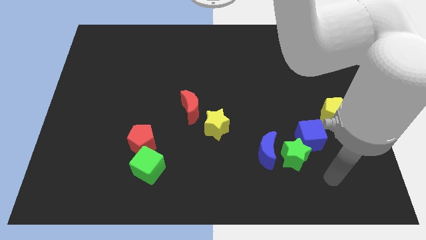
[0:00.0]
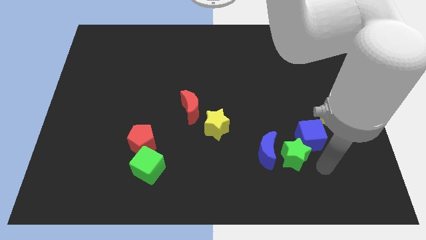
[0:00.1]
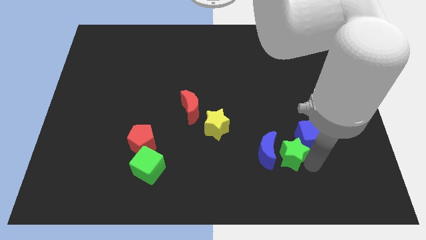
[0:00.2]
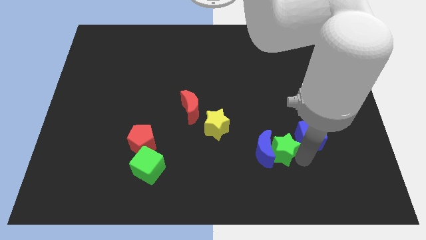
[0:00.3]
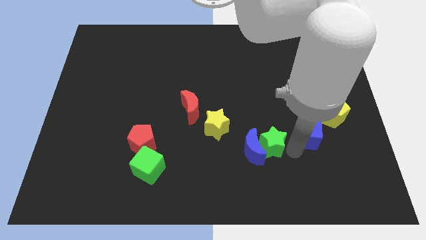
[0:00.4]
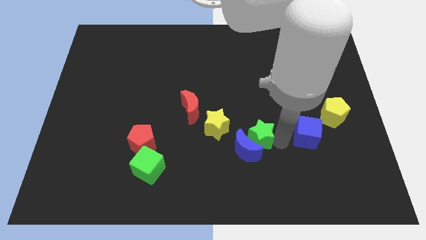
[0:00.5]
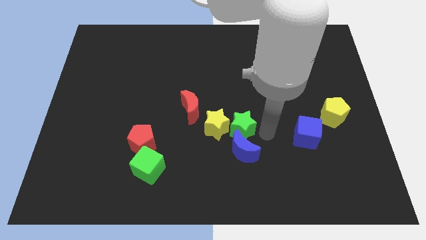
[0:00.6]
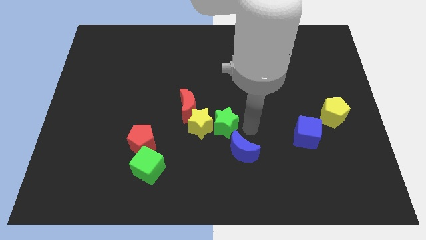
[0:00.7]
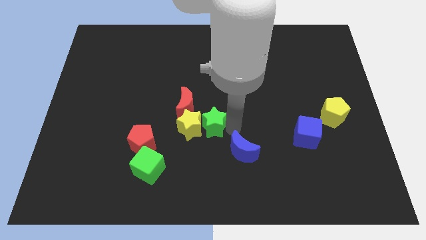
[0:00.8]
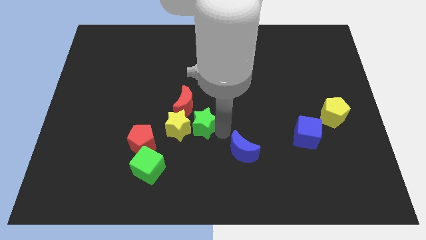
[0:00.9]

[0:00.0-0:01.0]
separate the blue moon from the green star

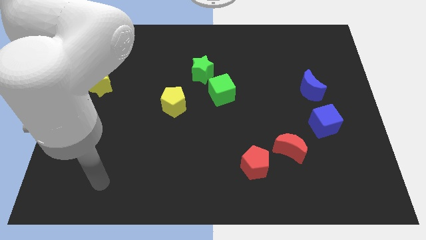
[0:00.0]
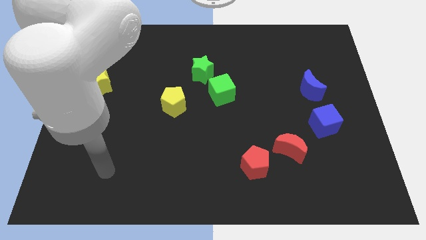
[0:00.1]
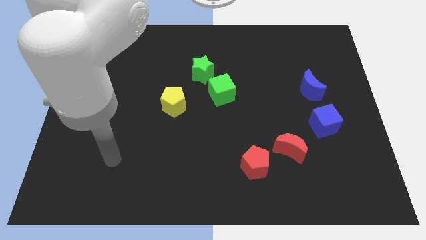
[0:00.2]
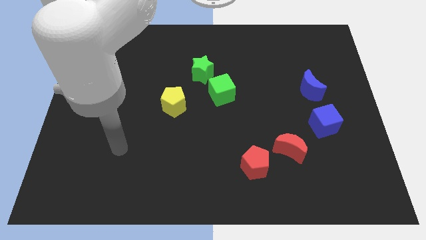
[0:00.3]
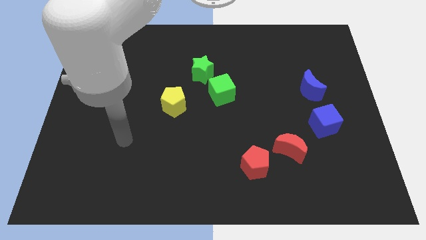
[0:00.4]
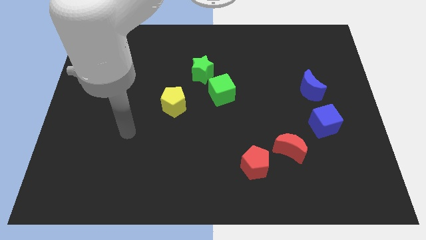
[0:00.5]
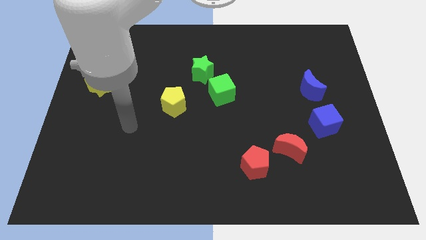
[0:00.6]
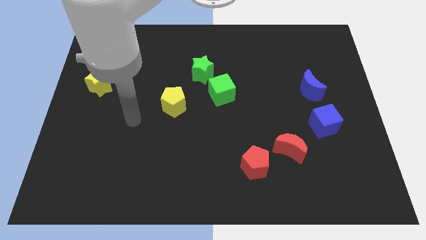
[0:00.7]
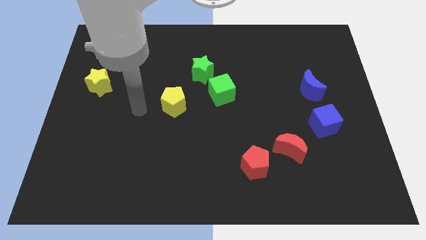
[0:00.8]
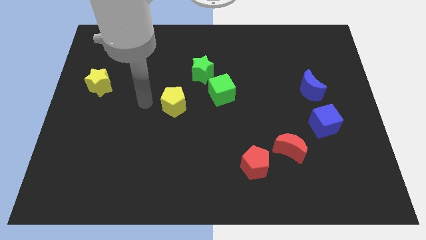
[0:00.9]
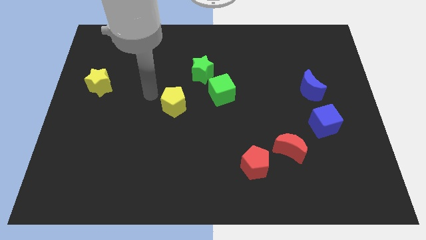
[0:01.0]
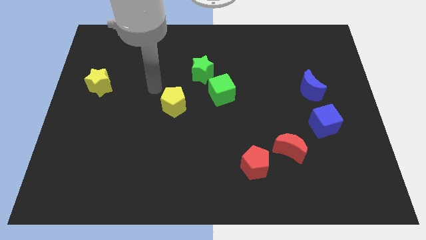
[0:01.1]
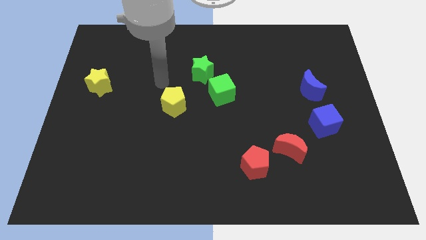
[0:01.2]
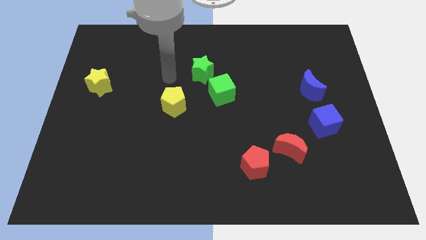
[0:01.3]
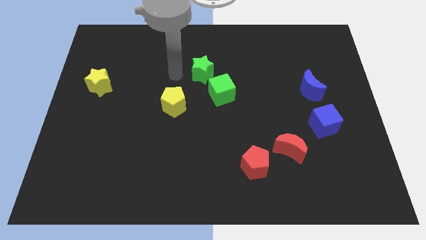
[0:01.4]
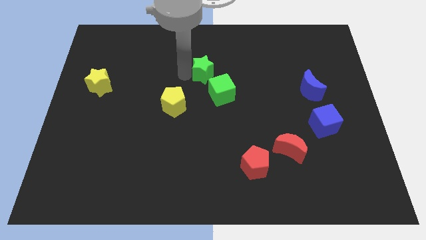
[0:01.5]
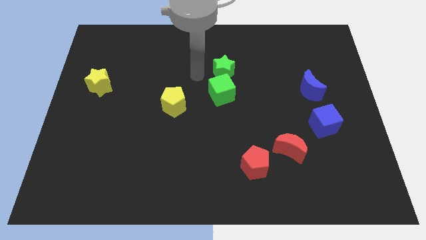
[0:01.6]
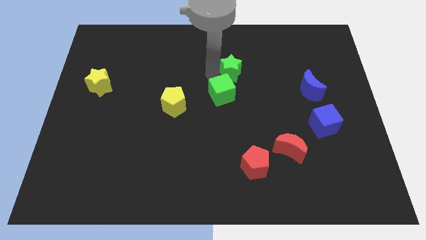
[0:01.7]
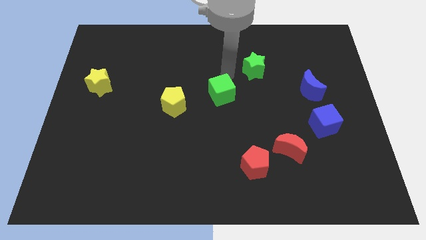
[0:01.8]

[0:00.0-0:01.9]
separate the green cube from the green star

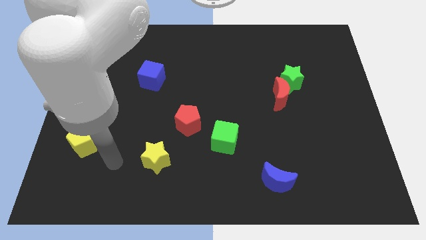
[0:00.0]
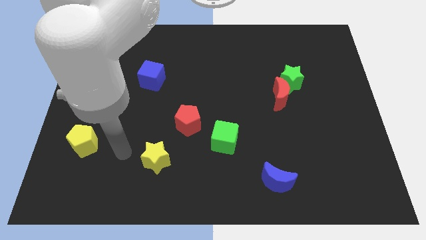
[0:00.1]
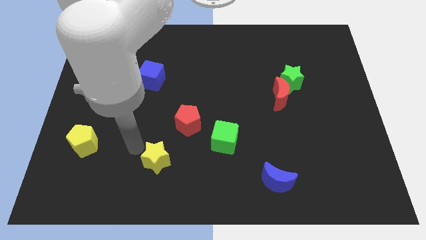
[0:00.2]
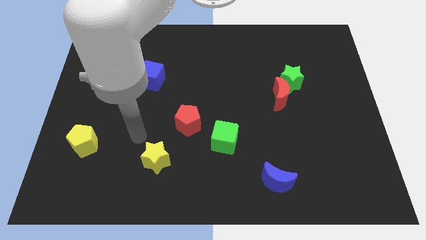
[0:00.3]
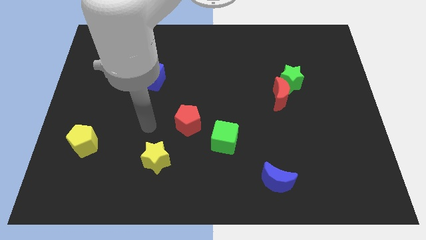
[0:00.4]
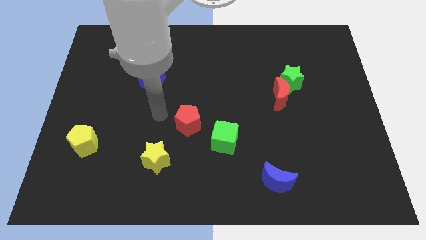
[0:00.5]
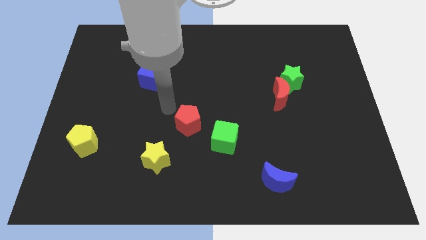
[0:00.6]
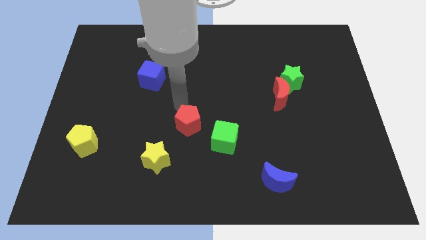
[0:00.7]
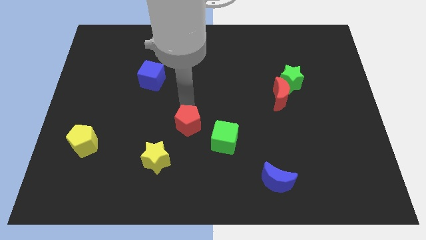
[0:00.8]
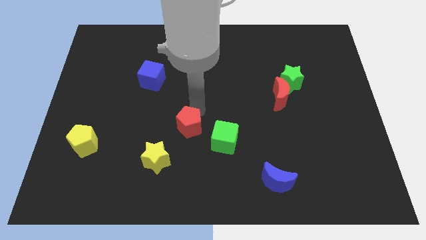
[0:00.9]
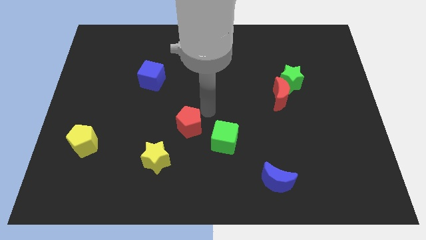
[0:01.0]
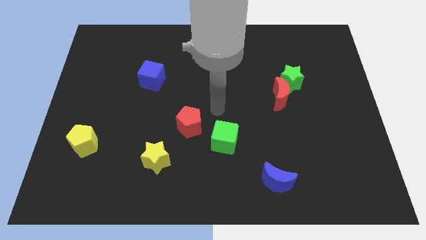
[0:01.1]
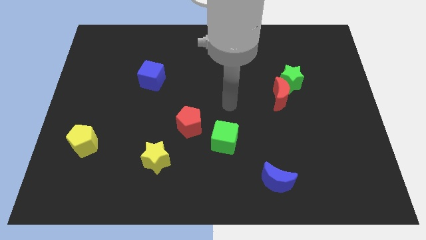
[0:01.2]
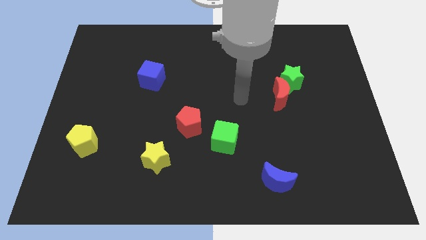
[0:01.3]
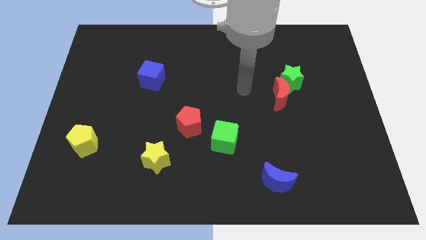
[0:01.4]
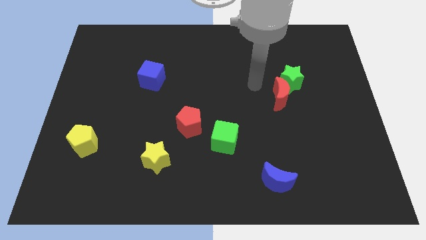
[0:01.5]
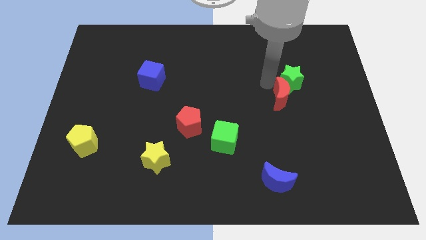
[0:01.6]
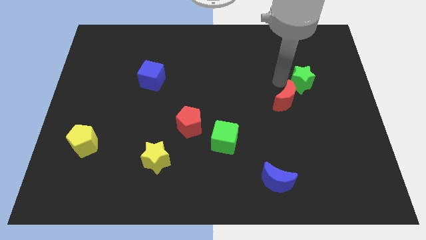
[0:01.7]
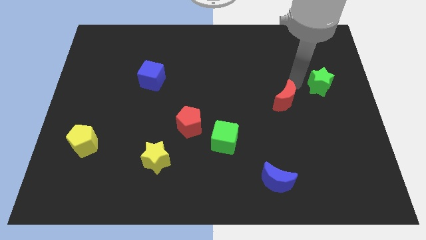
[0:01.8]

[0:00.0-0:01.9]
separate the red moon from the green star

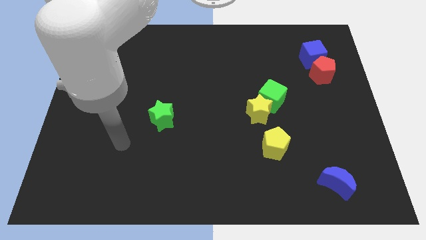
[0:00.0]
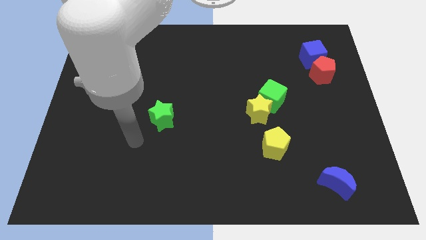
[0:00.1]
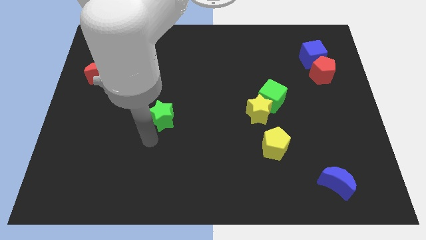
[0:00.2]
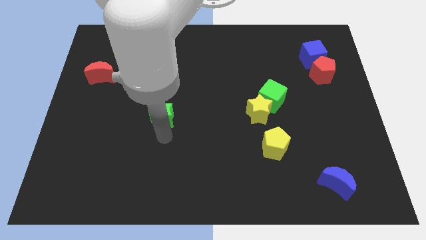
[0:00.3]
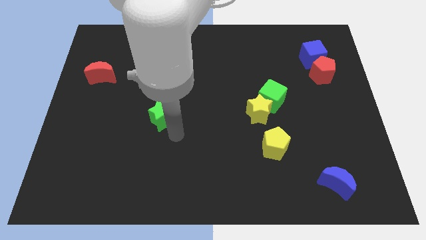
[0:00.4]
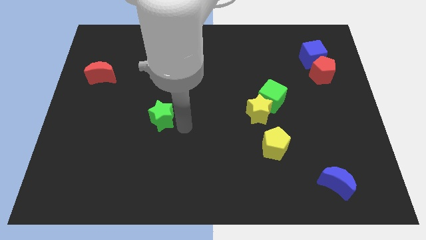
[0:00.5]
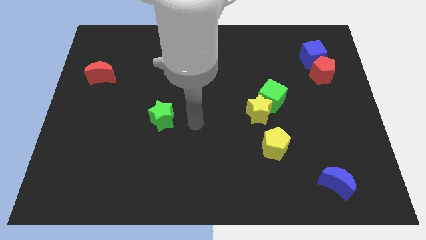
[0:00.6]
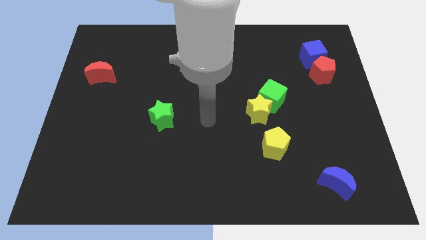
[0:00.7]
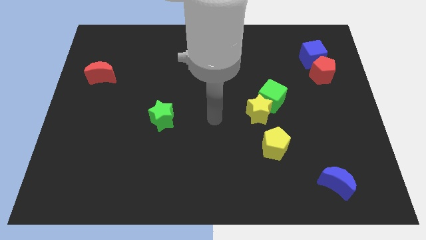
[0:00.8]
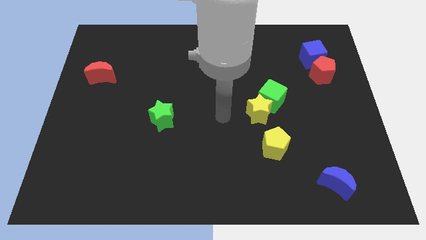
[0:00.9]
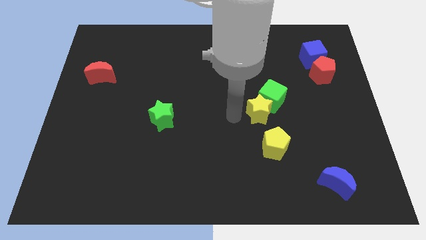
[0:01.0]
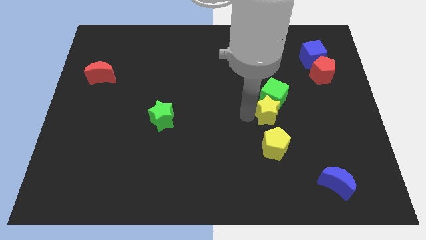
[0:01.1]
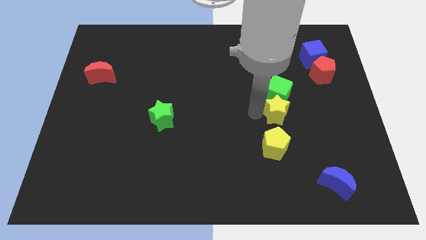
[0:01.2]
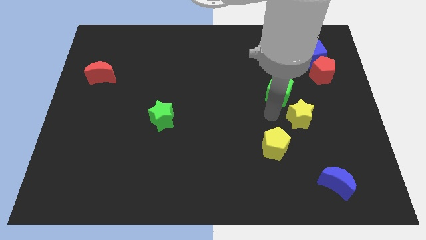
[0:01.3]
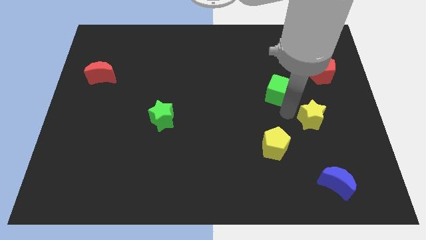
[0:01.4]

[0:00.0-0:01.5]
move the green cube away from the yellow star

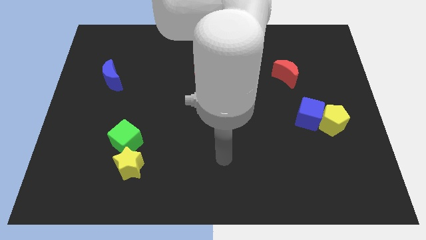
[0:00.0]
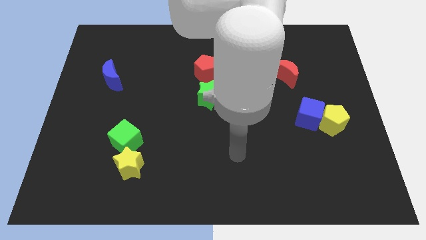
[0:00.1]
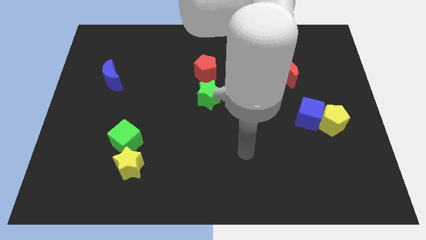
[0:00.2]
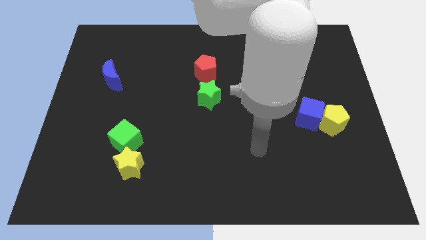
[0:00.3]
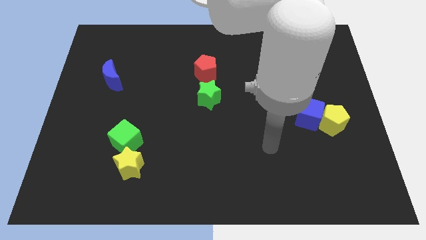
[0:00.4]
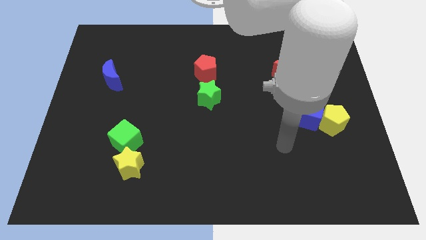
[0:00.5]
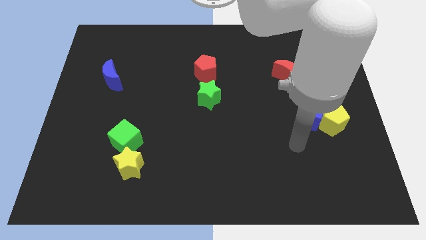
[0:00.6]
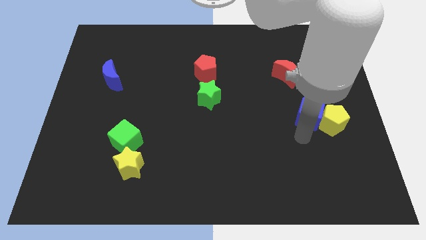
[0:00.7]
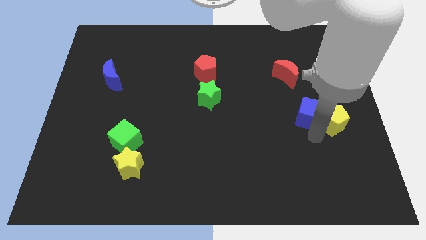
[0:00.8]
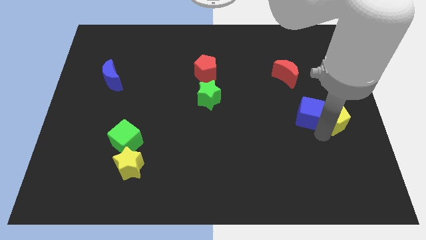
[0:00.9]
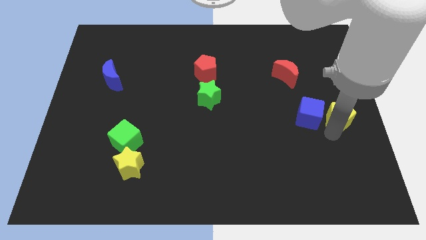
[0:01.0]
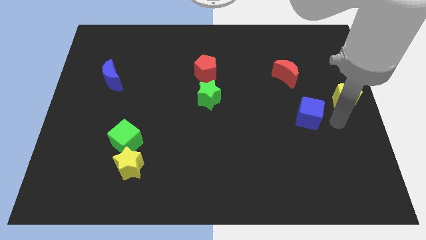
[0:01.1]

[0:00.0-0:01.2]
separate the blue cube from the yellow pentagon

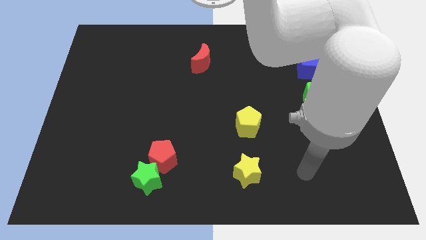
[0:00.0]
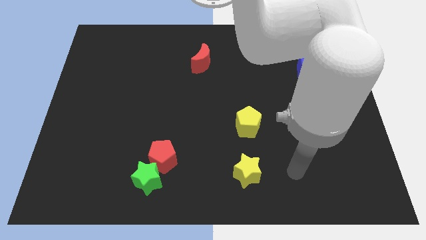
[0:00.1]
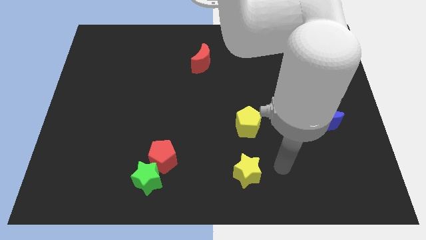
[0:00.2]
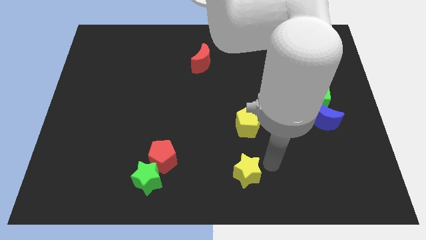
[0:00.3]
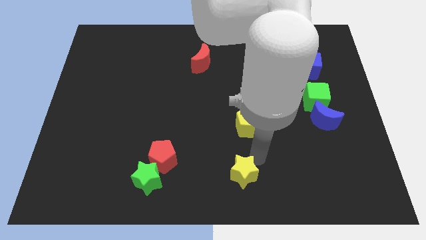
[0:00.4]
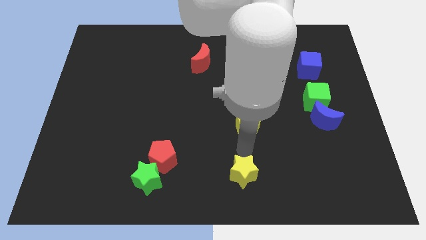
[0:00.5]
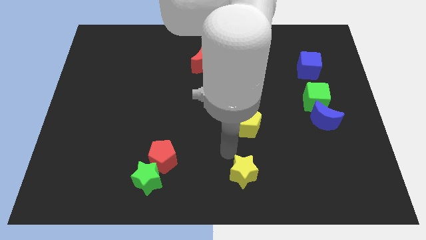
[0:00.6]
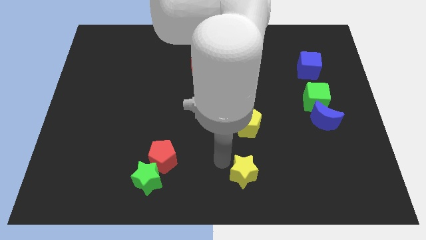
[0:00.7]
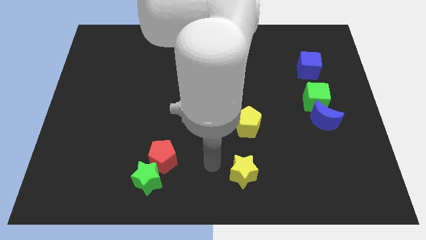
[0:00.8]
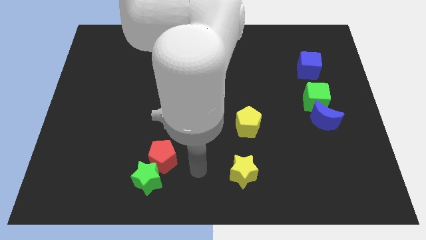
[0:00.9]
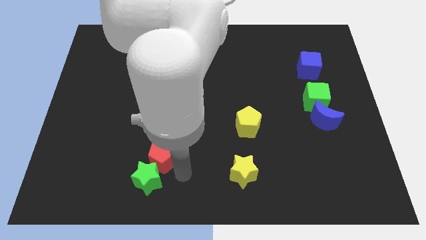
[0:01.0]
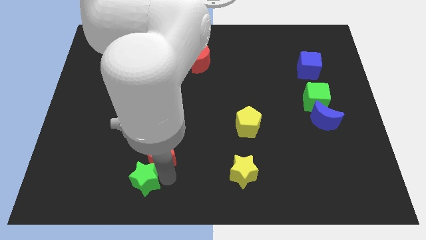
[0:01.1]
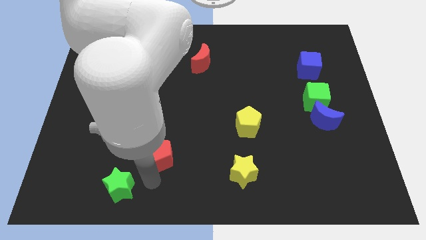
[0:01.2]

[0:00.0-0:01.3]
separate the red pentagon from the green star

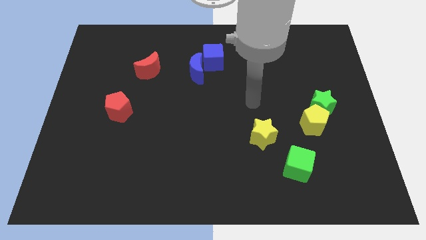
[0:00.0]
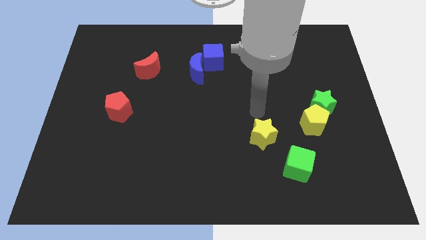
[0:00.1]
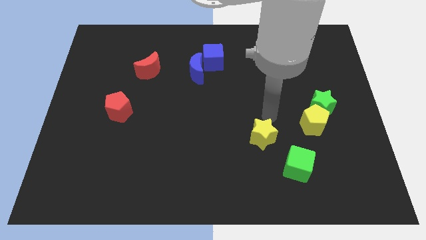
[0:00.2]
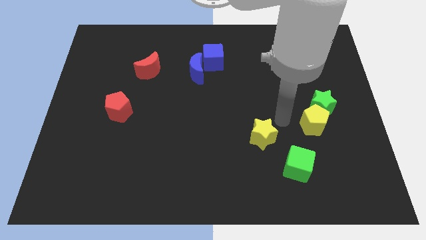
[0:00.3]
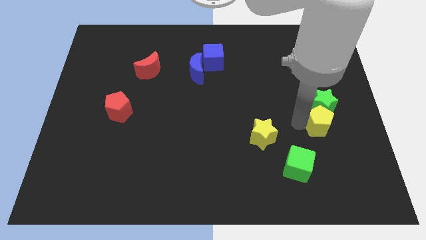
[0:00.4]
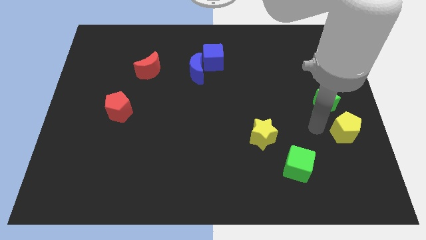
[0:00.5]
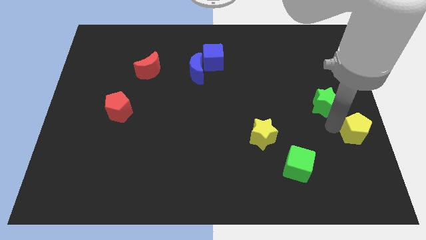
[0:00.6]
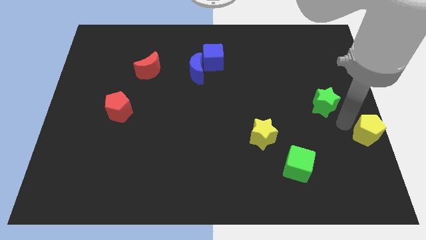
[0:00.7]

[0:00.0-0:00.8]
pull the green star apart from the yellow pentagon
